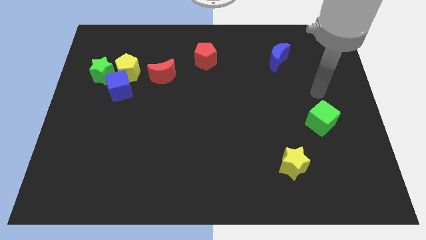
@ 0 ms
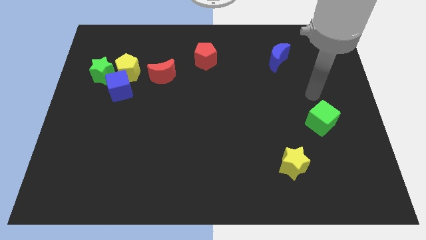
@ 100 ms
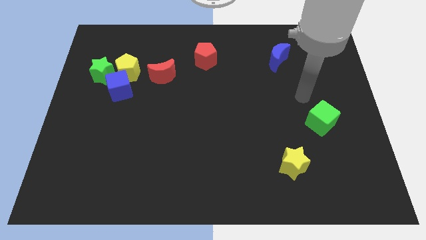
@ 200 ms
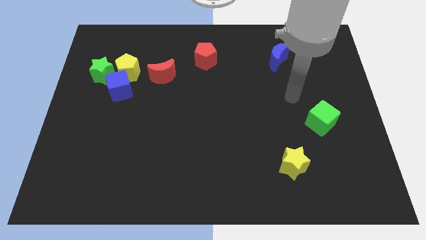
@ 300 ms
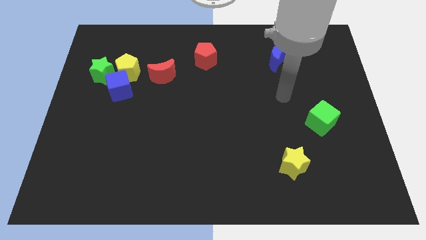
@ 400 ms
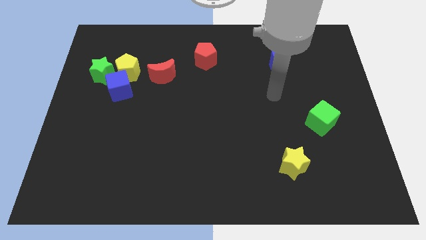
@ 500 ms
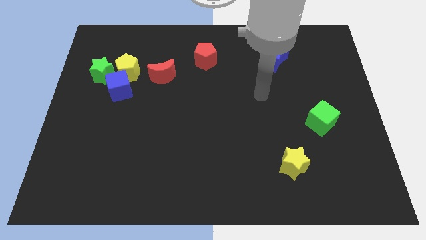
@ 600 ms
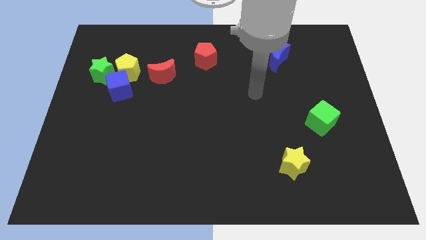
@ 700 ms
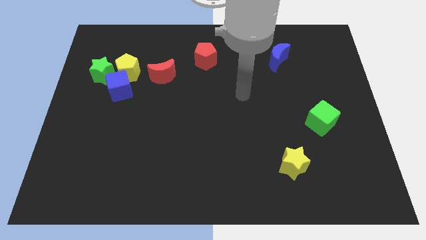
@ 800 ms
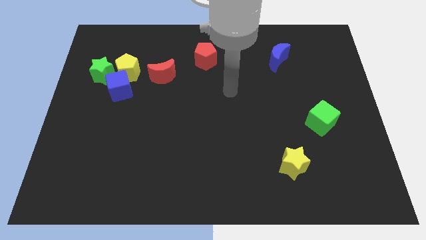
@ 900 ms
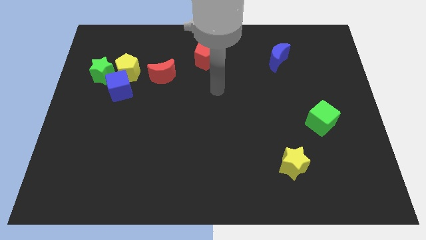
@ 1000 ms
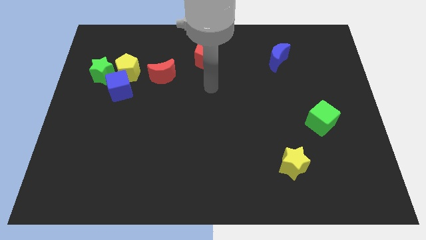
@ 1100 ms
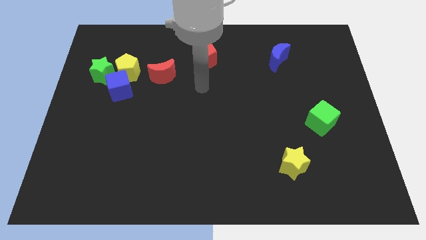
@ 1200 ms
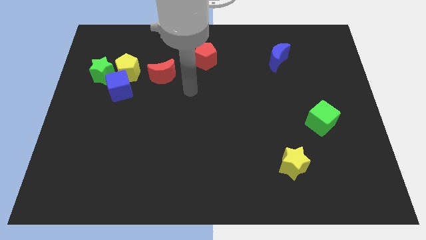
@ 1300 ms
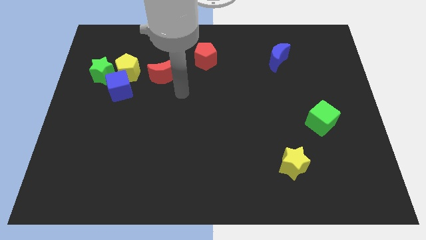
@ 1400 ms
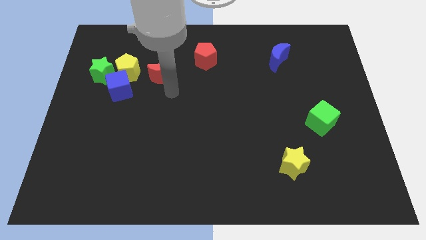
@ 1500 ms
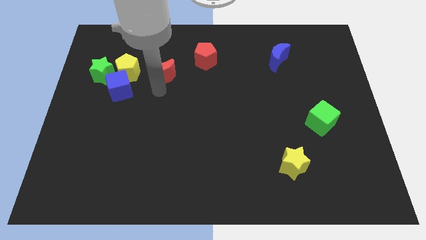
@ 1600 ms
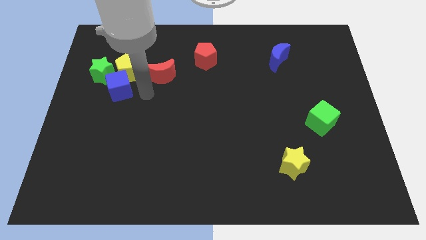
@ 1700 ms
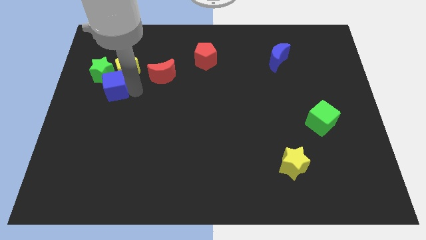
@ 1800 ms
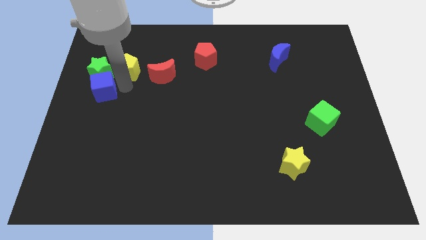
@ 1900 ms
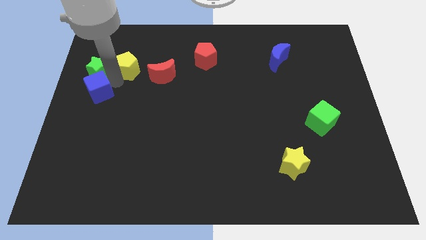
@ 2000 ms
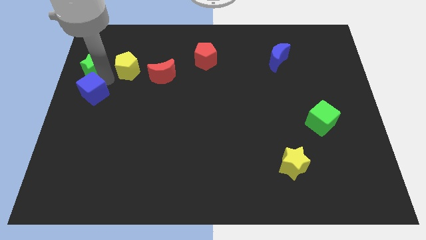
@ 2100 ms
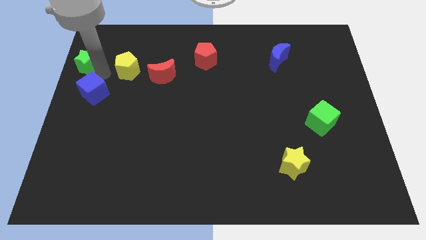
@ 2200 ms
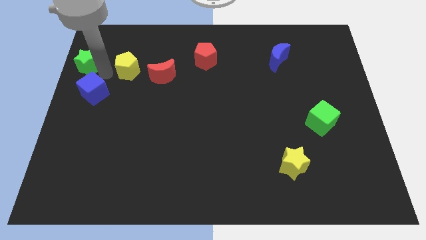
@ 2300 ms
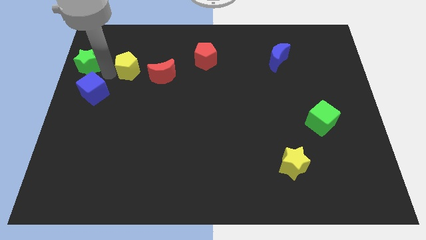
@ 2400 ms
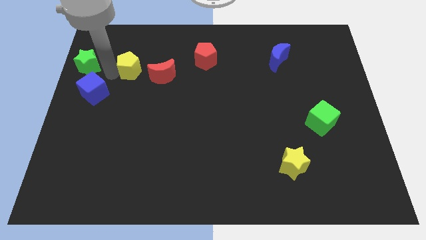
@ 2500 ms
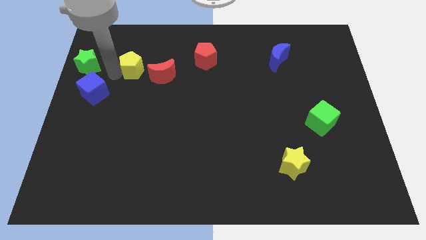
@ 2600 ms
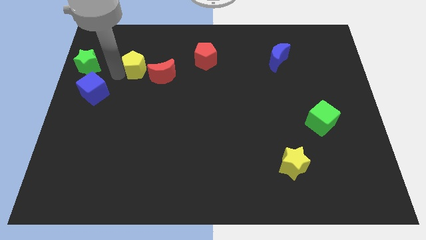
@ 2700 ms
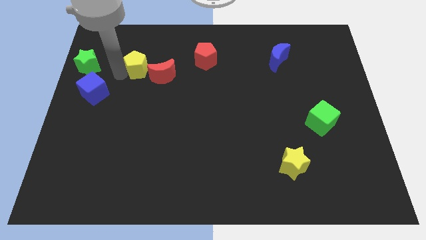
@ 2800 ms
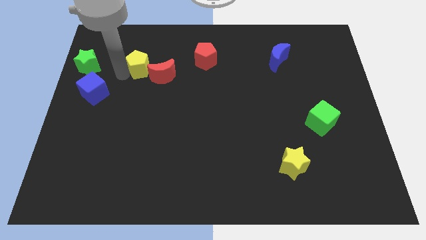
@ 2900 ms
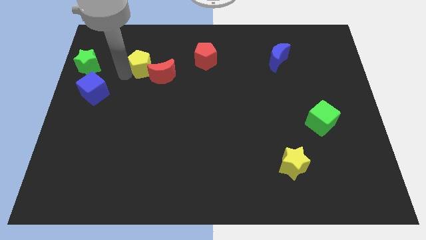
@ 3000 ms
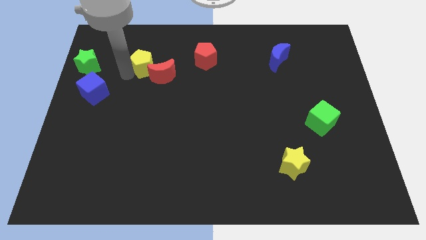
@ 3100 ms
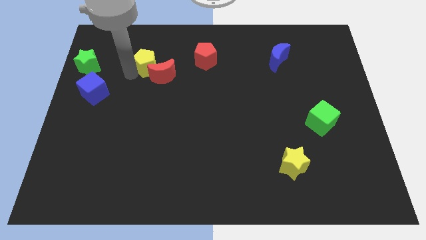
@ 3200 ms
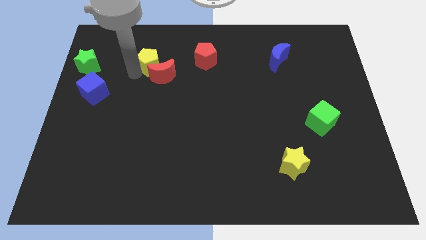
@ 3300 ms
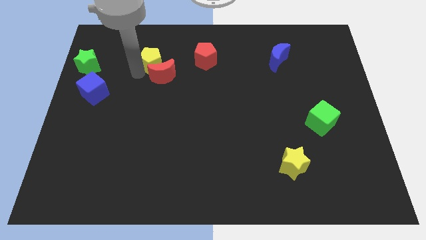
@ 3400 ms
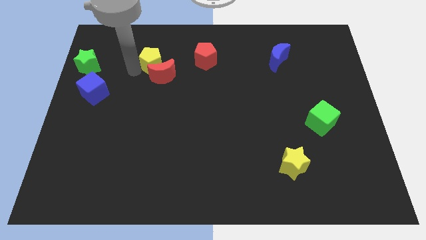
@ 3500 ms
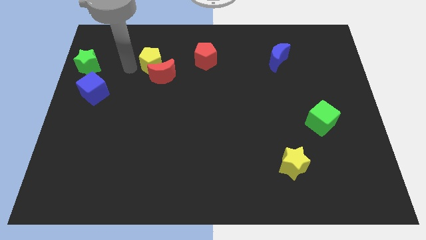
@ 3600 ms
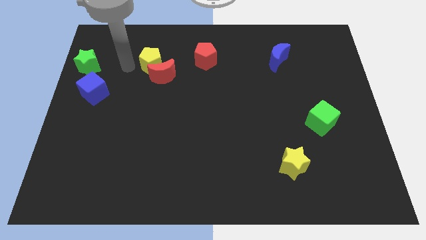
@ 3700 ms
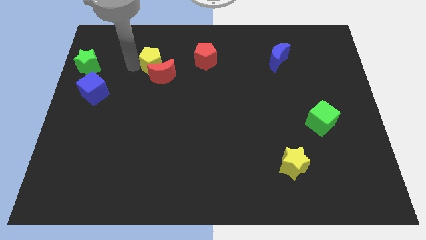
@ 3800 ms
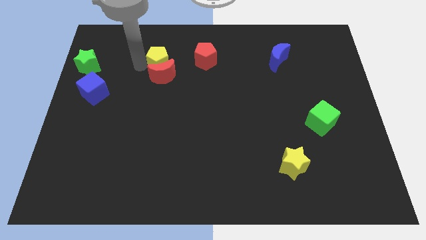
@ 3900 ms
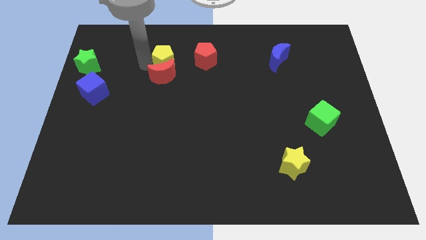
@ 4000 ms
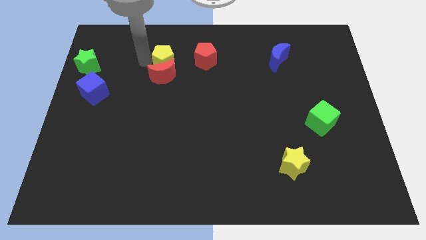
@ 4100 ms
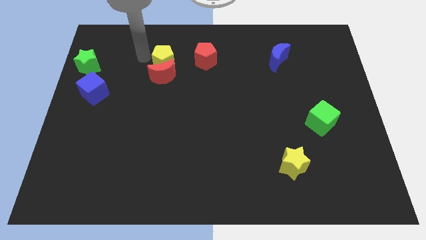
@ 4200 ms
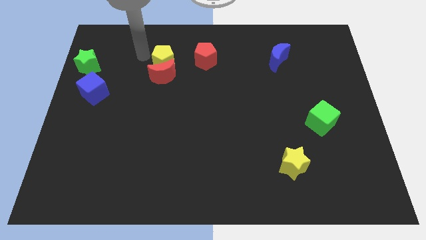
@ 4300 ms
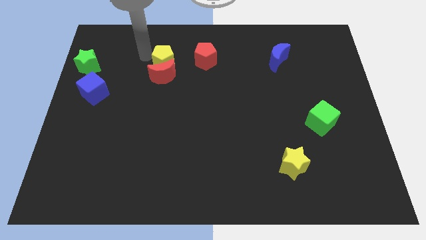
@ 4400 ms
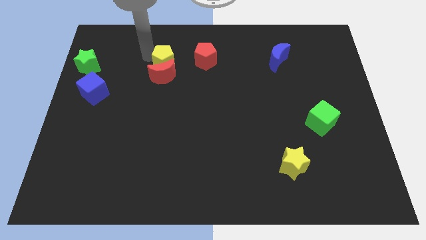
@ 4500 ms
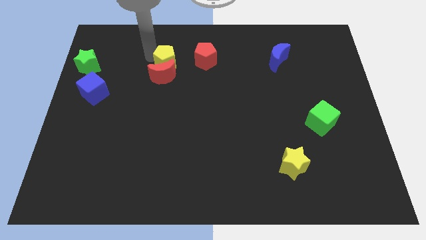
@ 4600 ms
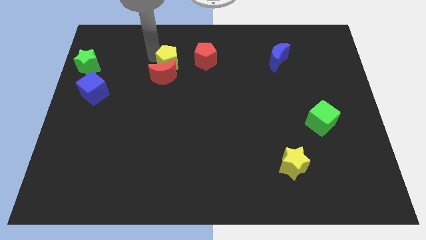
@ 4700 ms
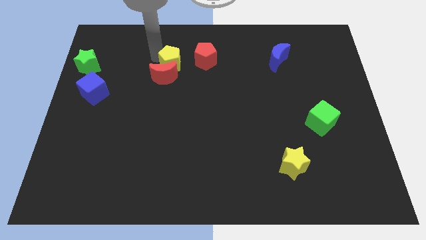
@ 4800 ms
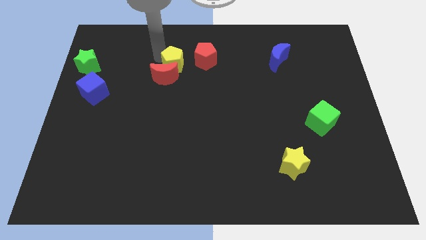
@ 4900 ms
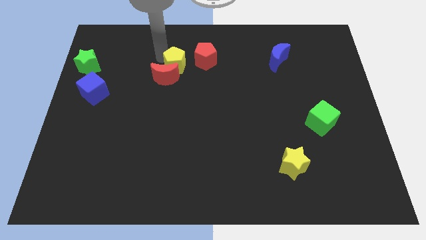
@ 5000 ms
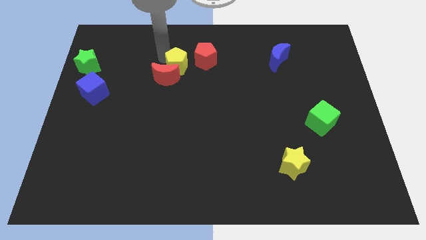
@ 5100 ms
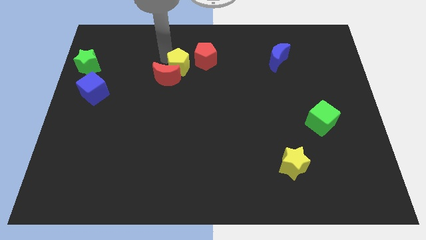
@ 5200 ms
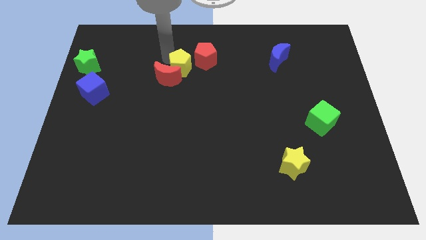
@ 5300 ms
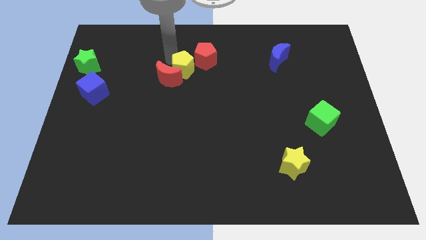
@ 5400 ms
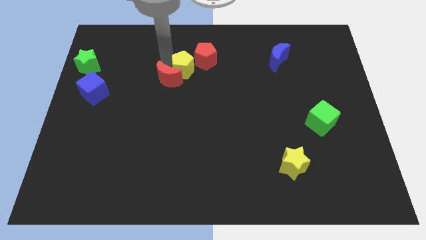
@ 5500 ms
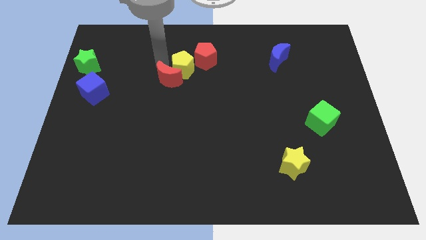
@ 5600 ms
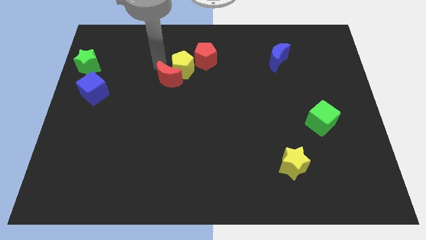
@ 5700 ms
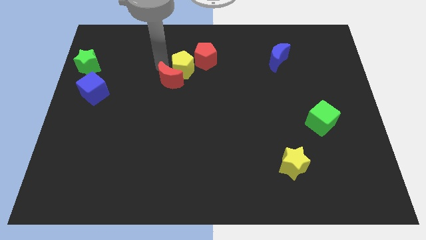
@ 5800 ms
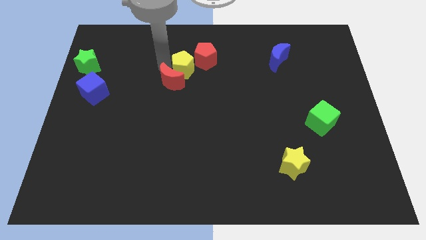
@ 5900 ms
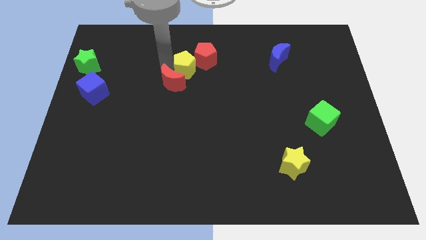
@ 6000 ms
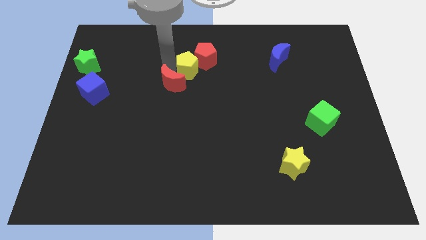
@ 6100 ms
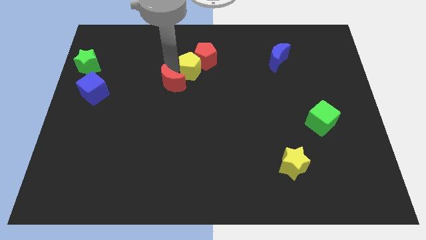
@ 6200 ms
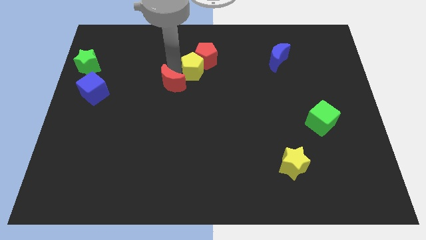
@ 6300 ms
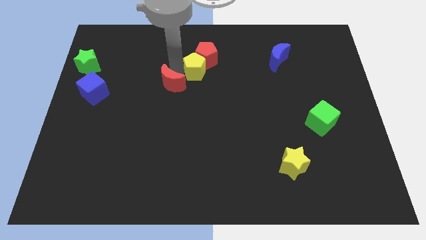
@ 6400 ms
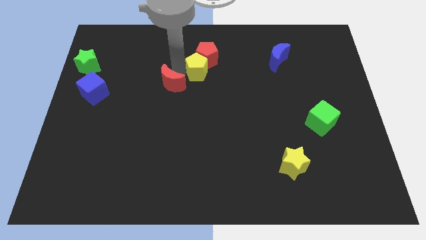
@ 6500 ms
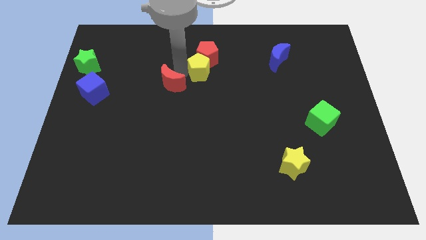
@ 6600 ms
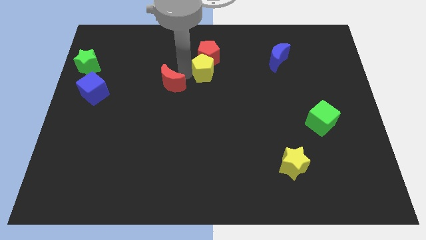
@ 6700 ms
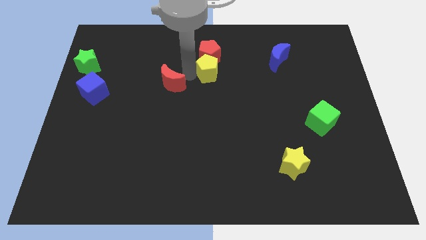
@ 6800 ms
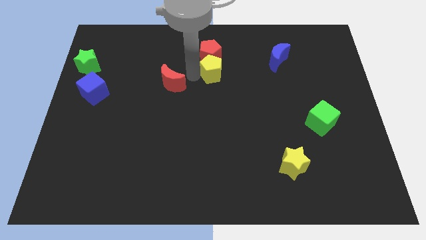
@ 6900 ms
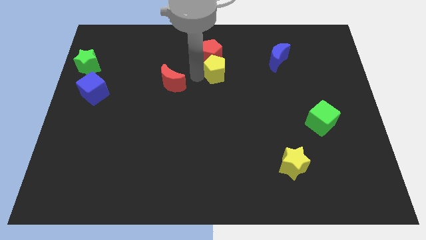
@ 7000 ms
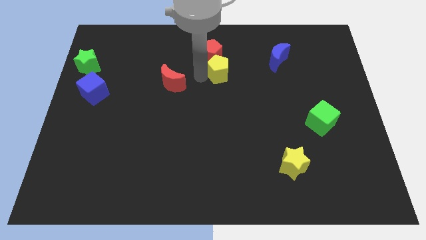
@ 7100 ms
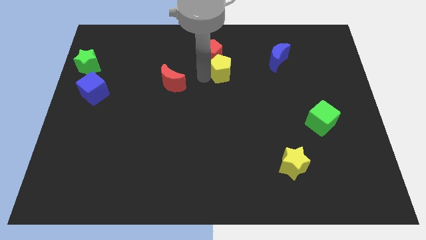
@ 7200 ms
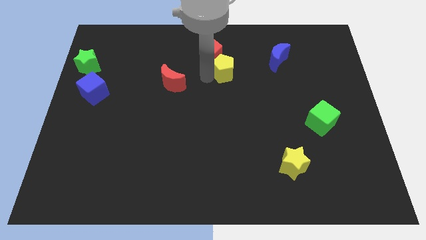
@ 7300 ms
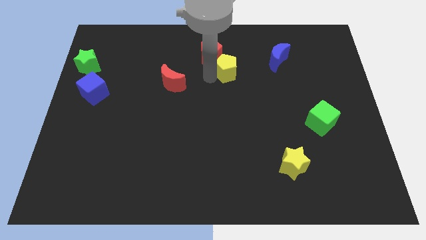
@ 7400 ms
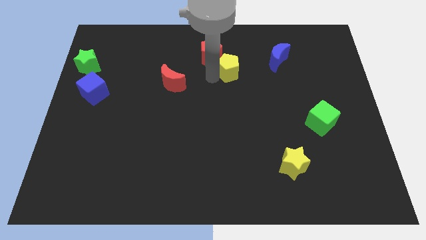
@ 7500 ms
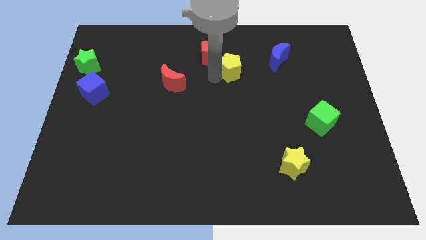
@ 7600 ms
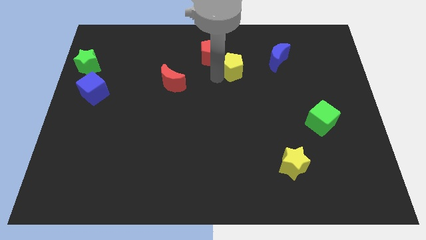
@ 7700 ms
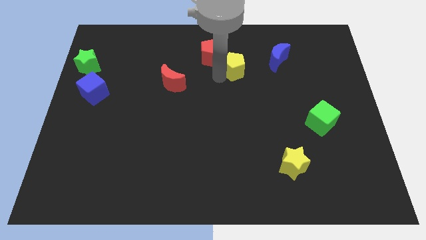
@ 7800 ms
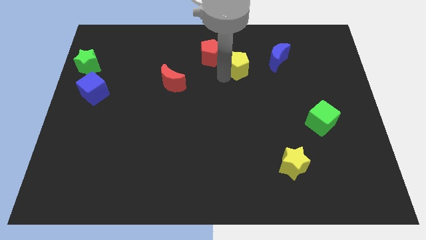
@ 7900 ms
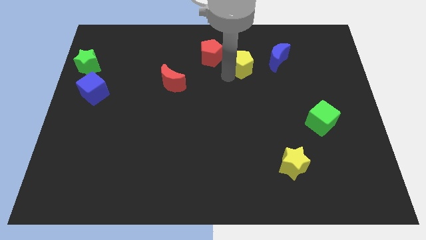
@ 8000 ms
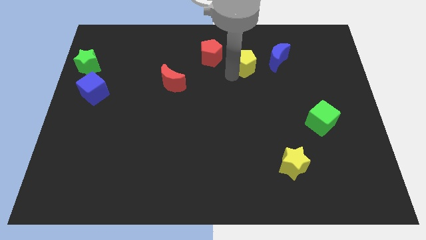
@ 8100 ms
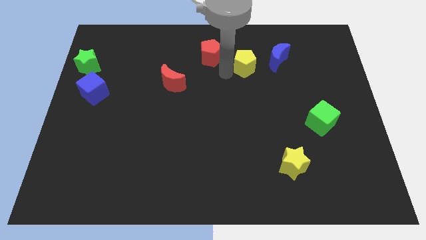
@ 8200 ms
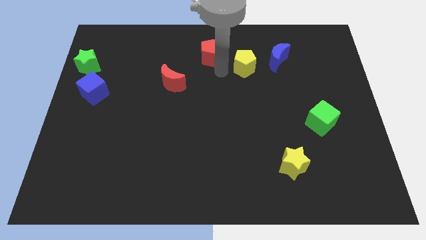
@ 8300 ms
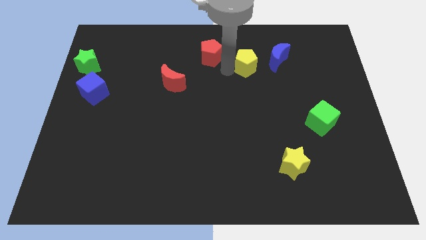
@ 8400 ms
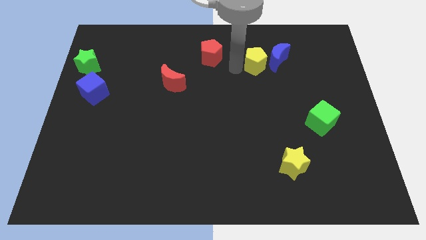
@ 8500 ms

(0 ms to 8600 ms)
push the yellow pentagon next to the blue moon
